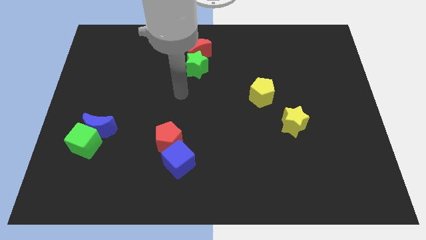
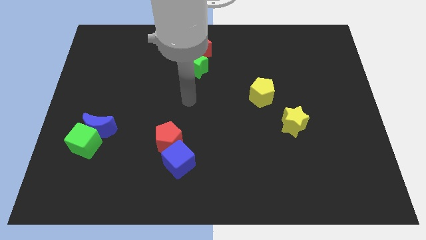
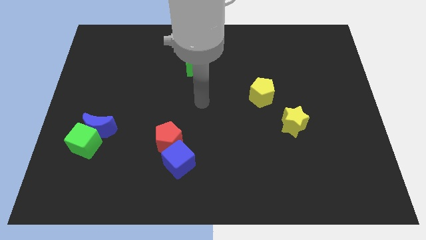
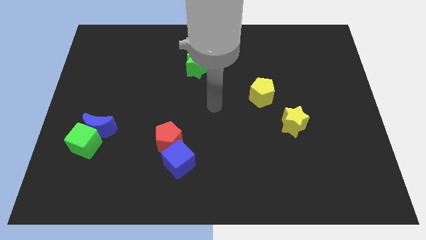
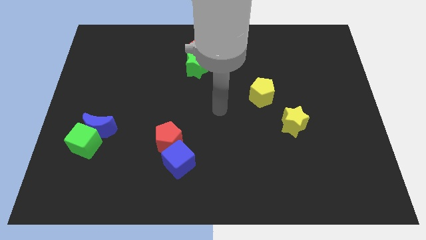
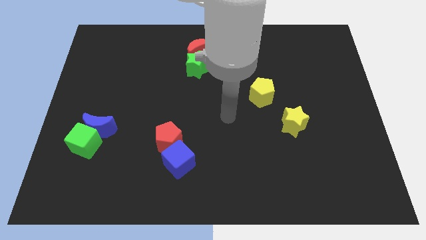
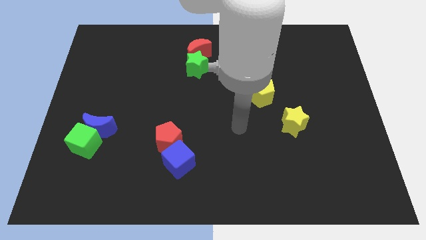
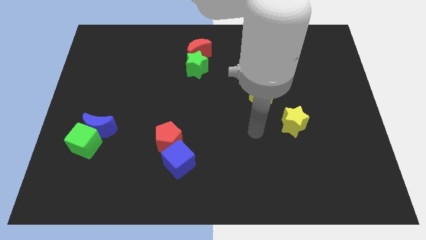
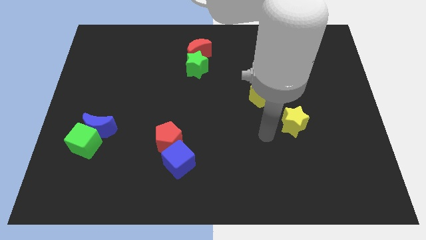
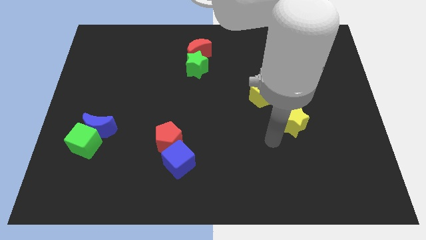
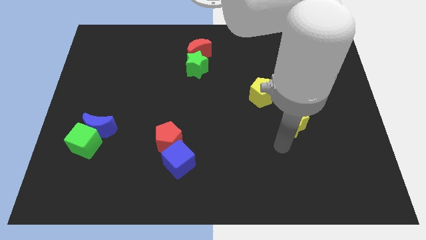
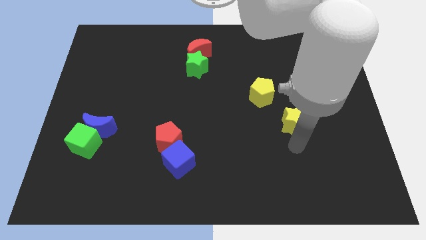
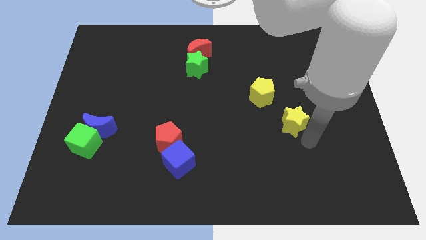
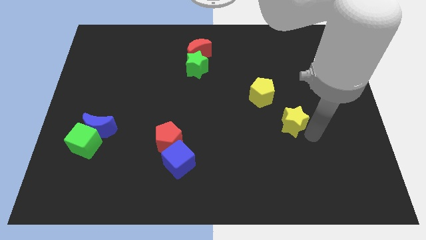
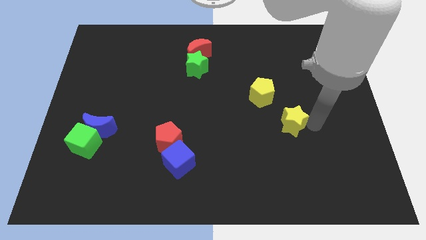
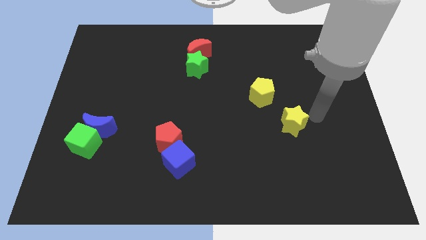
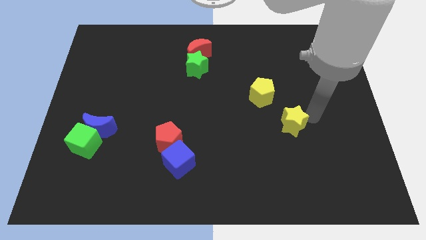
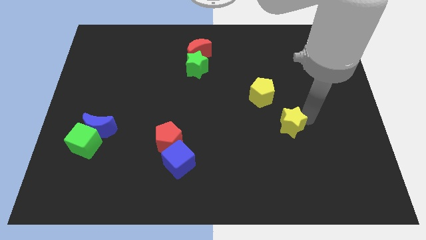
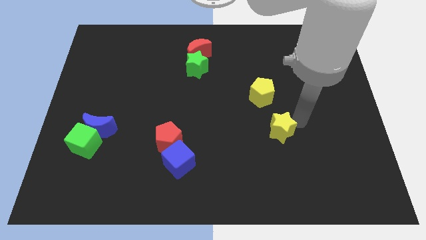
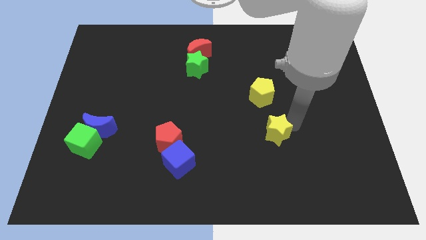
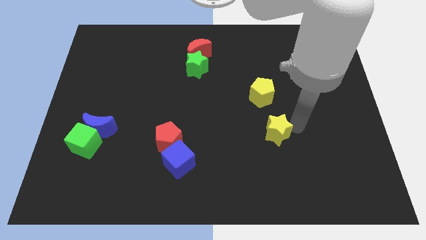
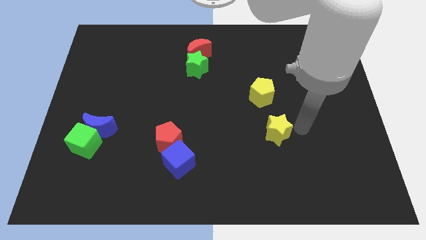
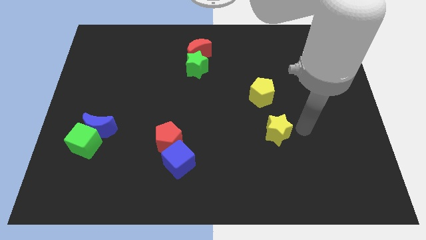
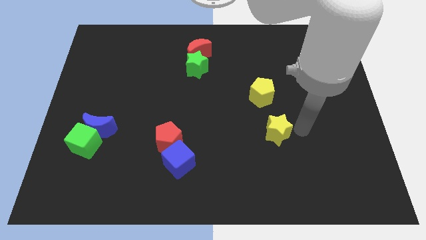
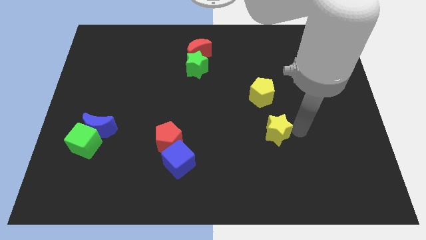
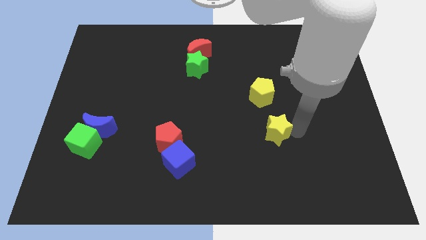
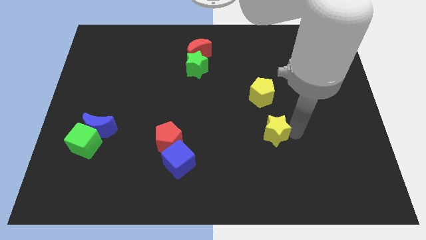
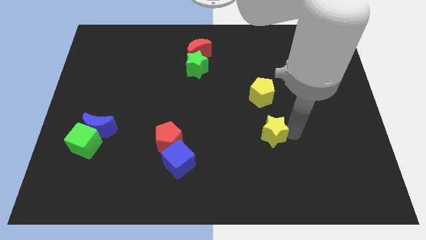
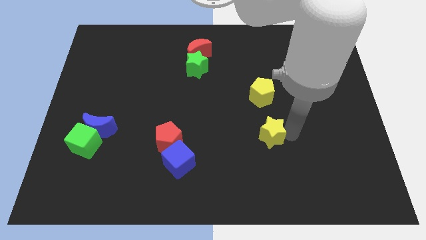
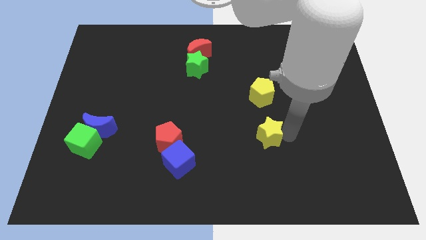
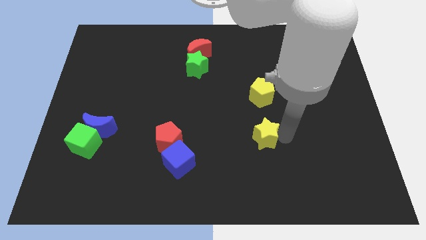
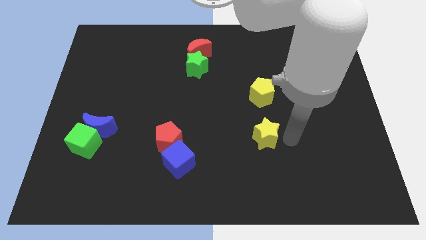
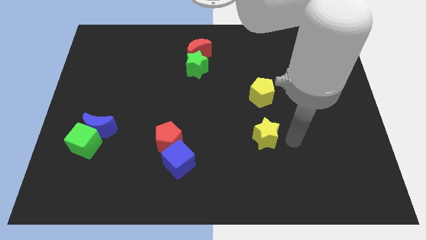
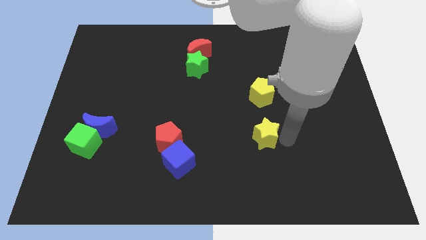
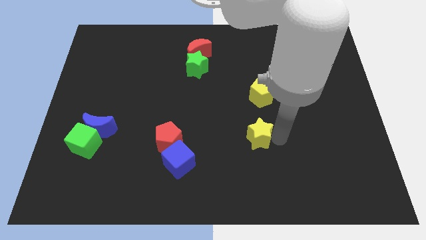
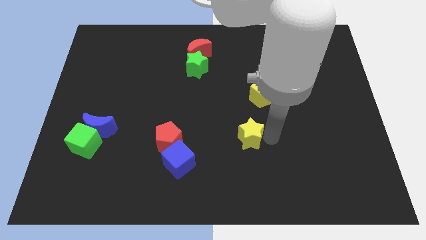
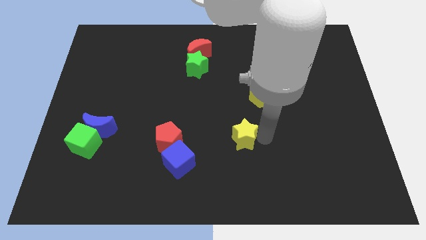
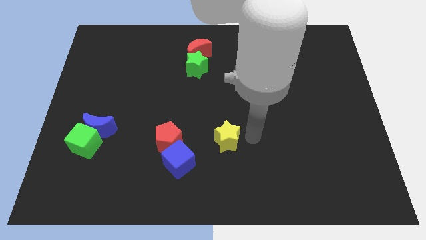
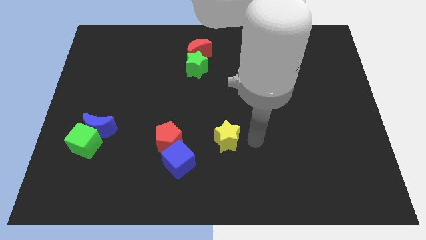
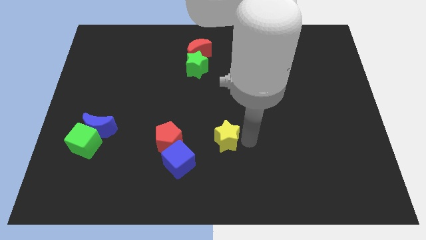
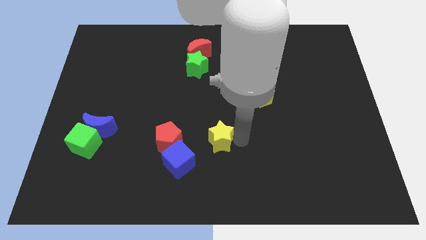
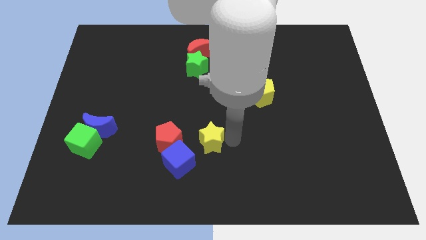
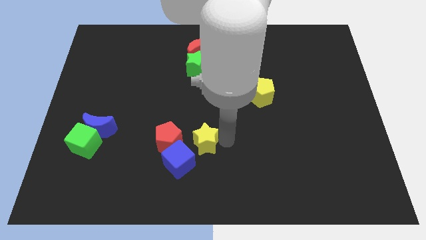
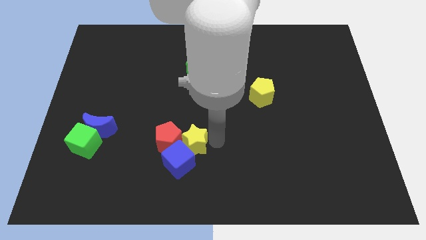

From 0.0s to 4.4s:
move the yellow star to the red pentagon

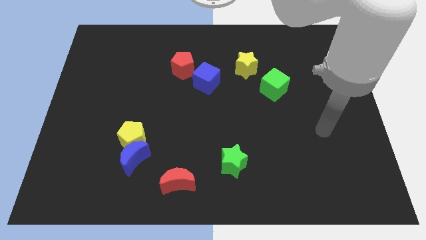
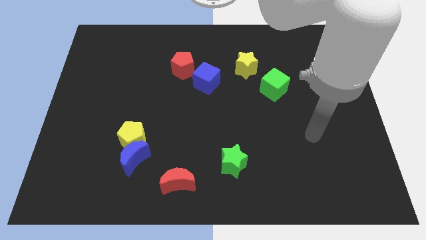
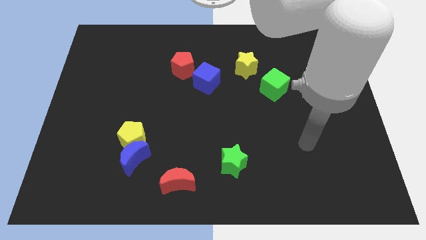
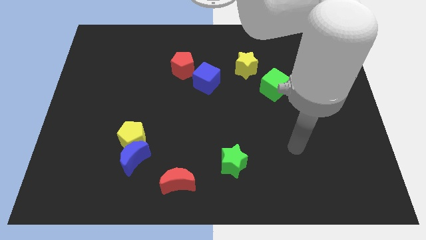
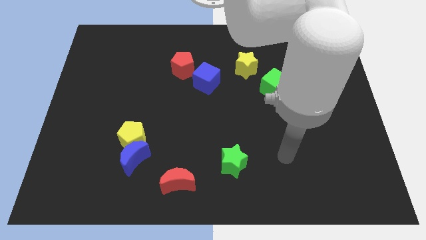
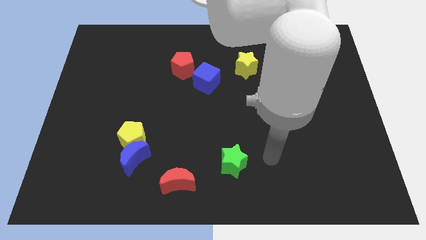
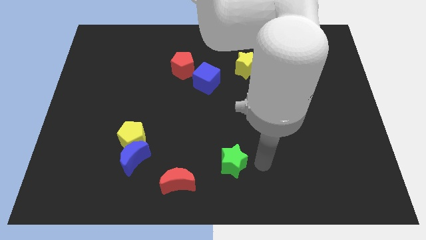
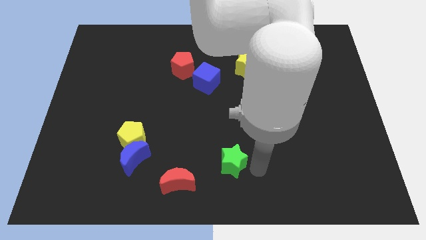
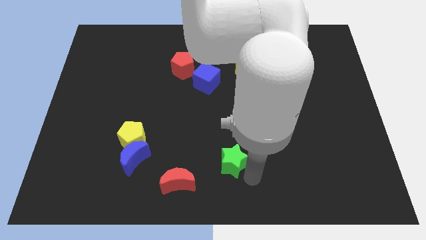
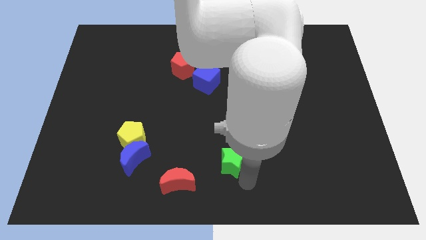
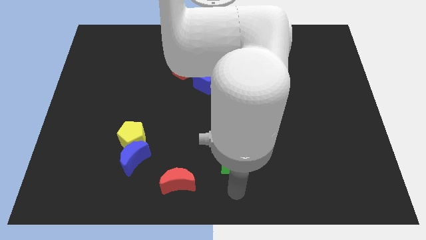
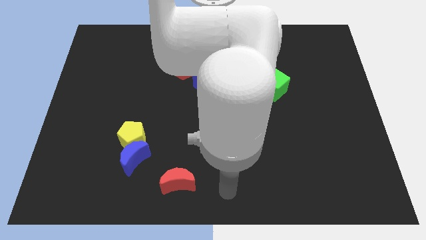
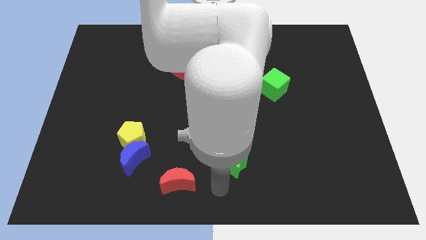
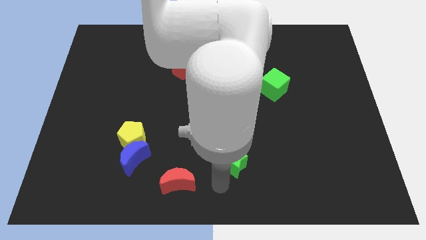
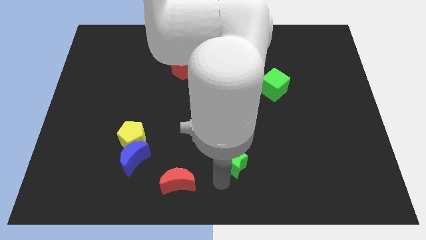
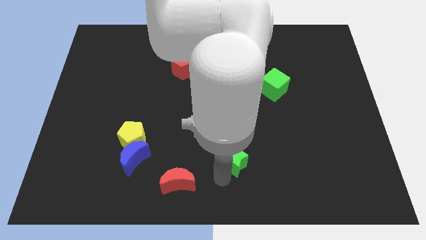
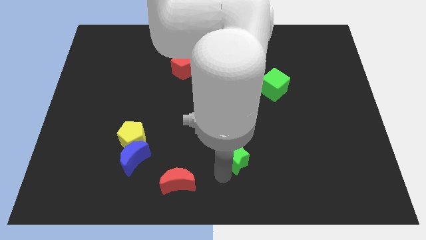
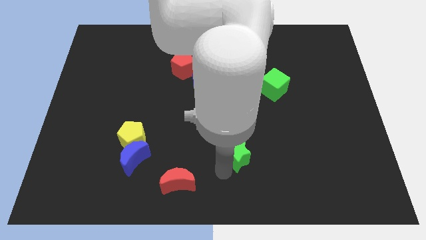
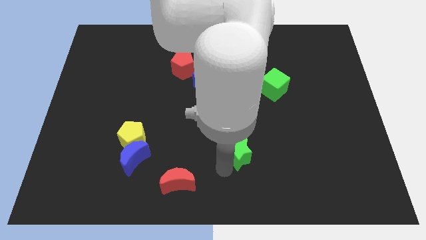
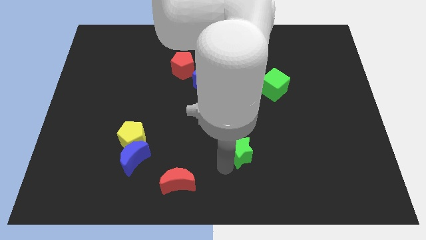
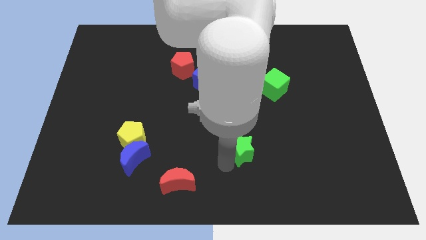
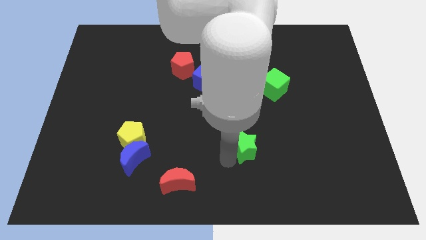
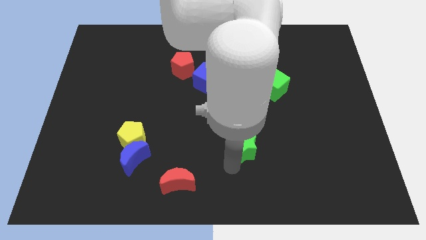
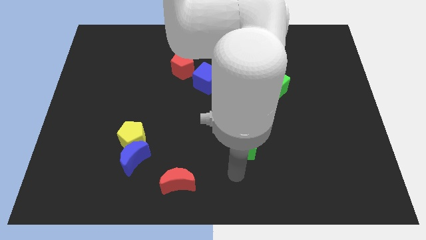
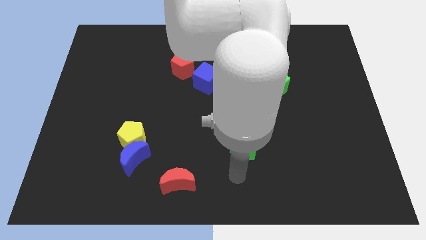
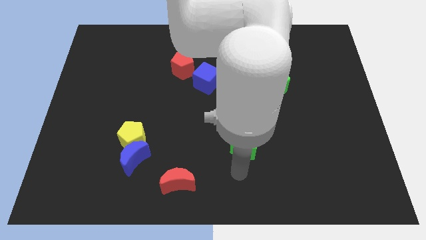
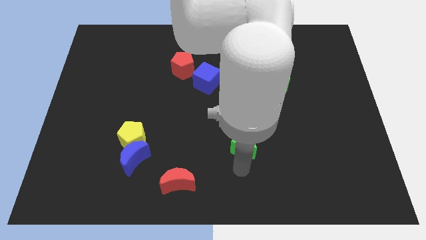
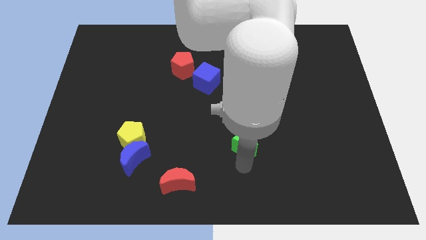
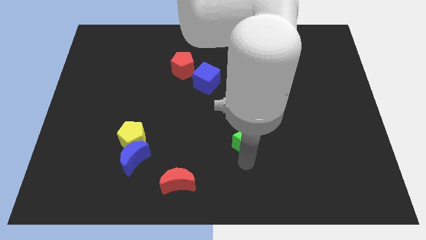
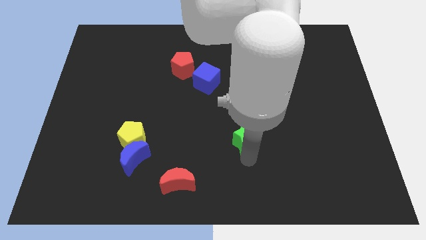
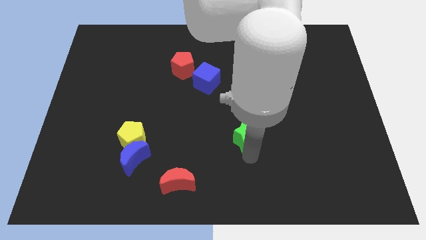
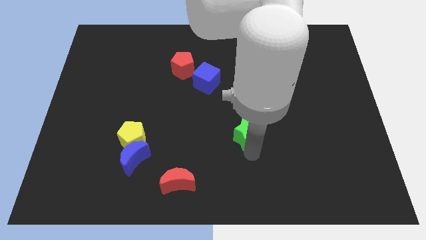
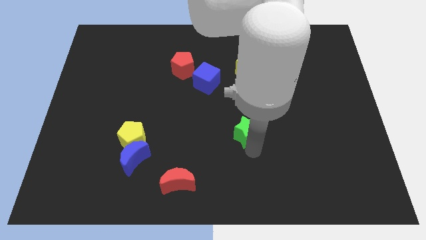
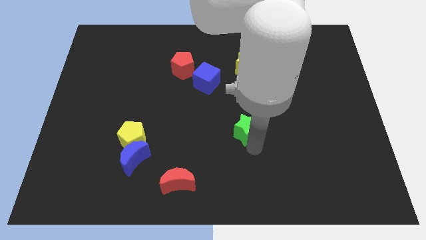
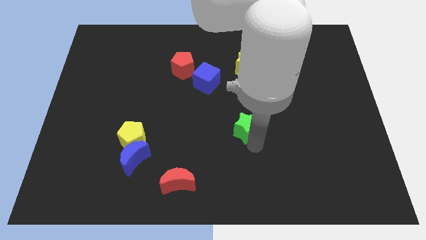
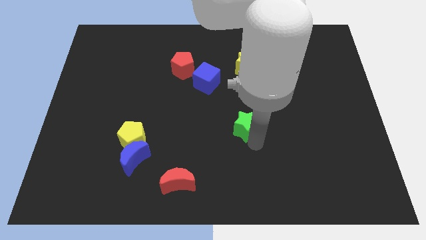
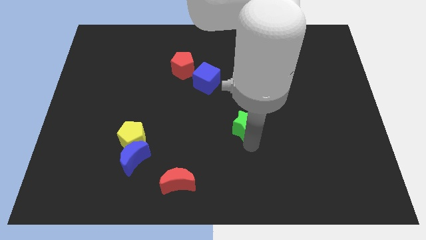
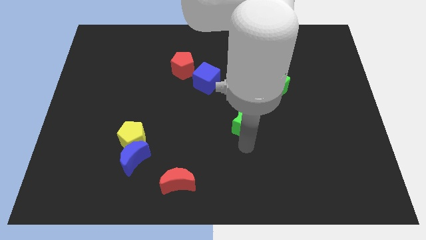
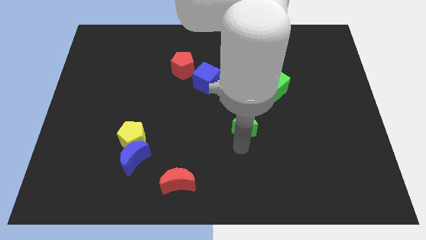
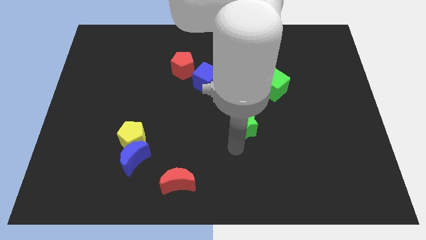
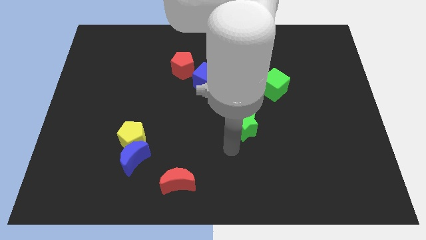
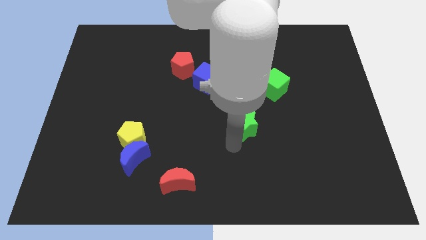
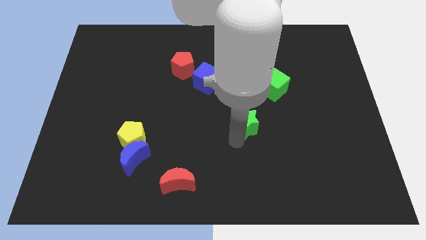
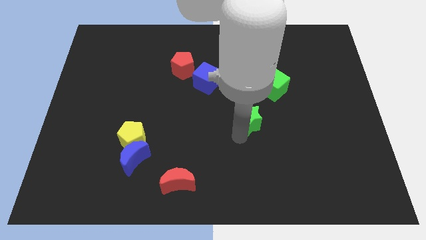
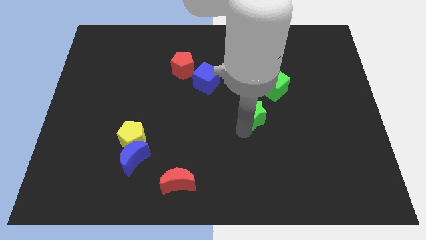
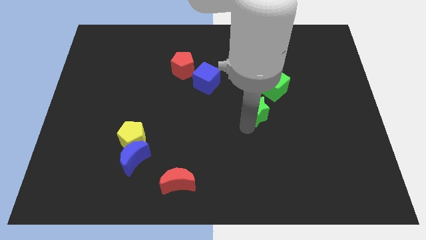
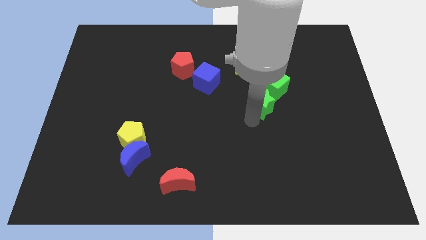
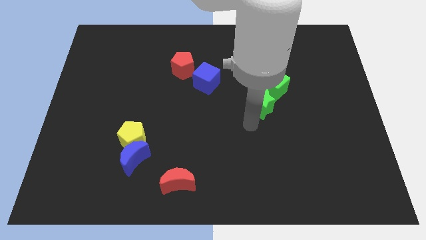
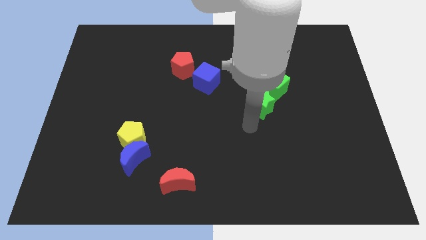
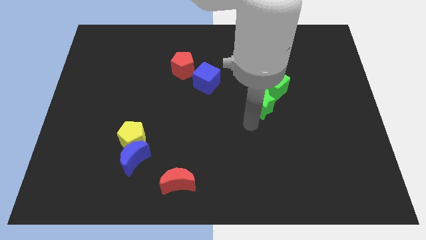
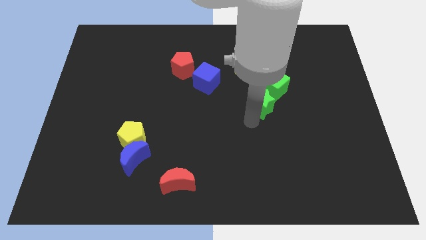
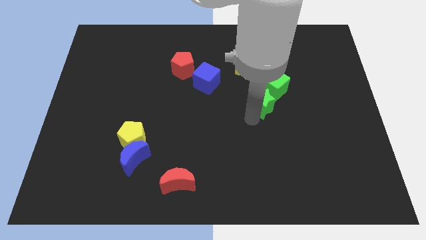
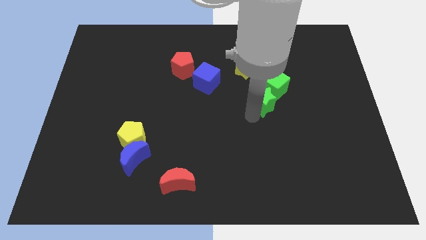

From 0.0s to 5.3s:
push the green star to the green cube
